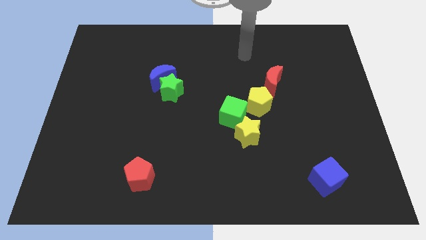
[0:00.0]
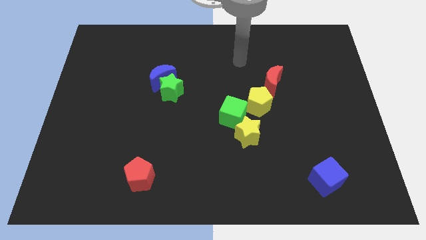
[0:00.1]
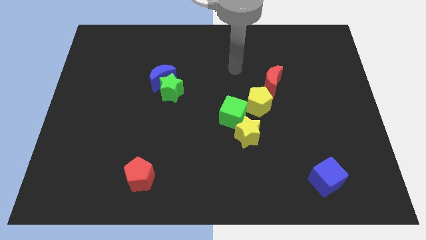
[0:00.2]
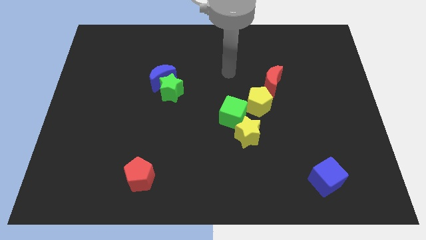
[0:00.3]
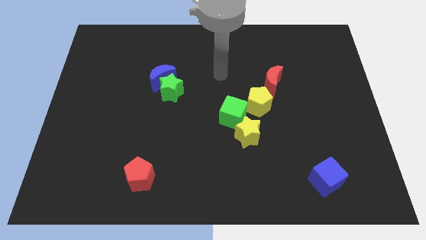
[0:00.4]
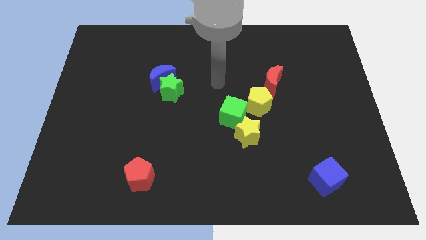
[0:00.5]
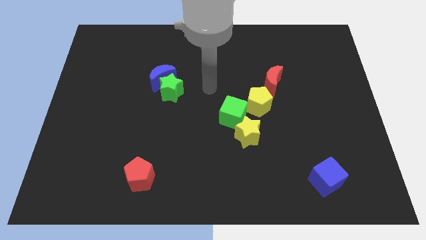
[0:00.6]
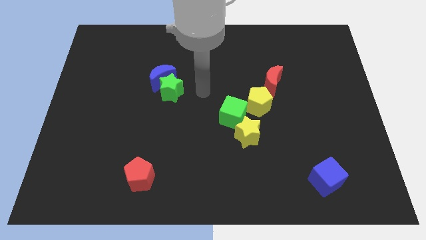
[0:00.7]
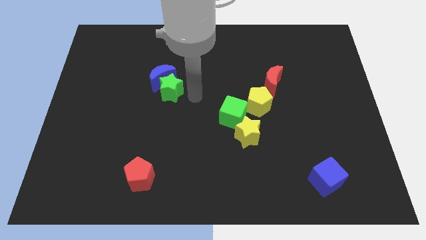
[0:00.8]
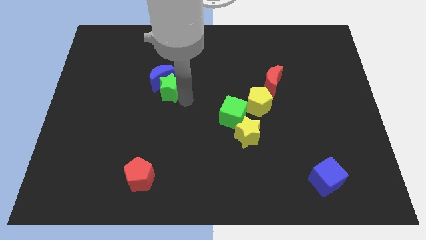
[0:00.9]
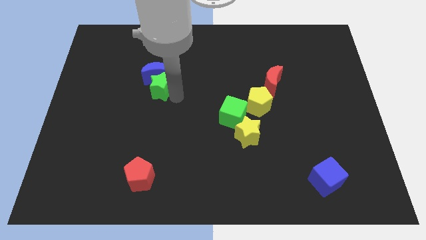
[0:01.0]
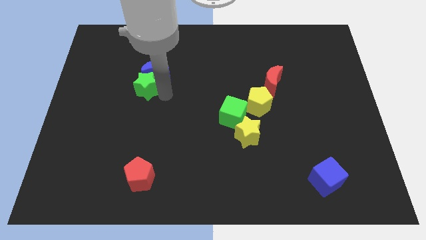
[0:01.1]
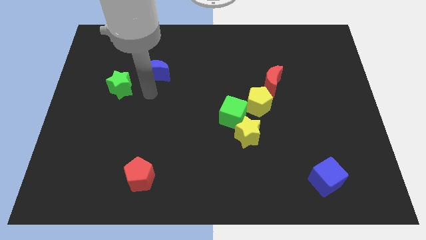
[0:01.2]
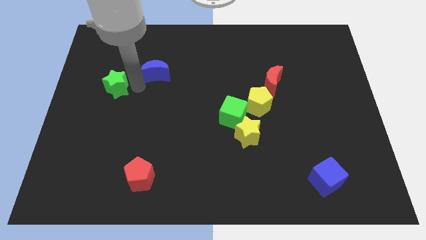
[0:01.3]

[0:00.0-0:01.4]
separate the blue moon from the green star

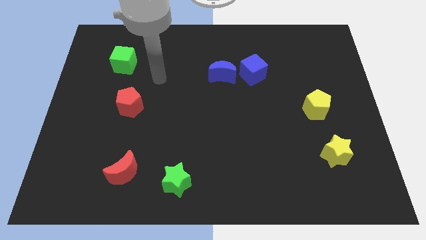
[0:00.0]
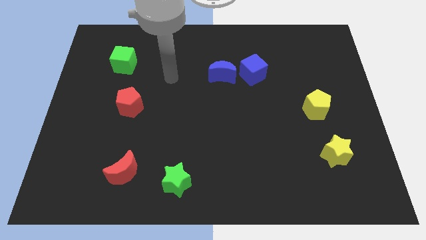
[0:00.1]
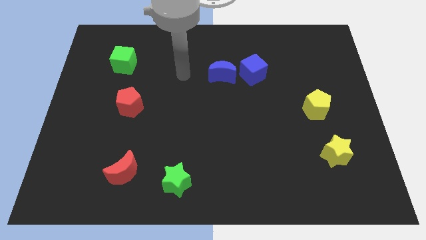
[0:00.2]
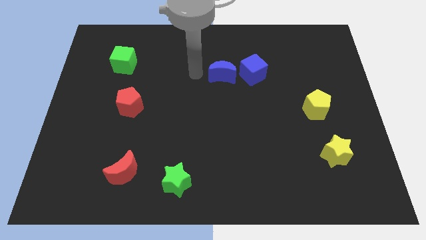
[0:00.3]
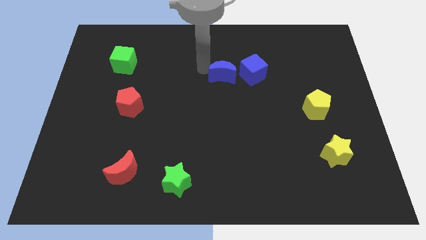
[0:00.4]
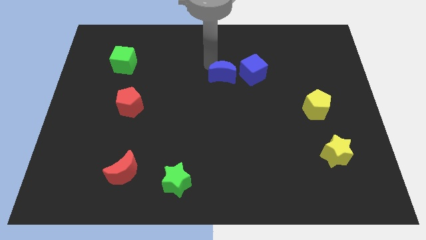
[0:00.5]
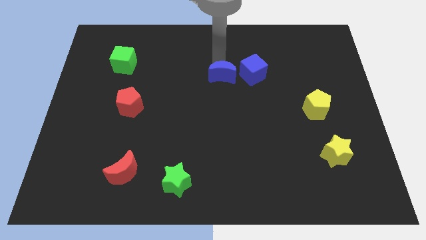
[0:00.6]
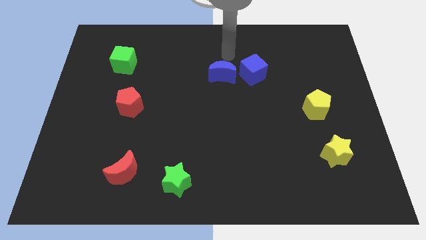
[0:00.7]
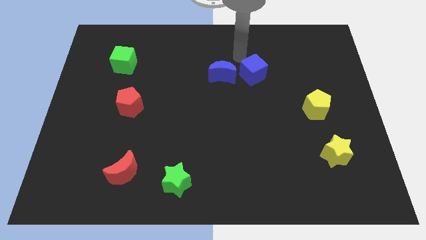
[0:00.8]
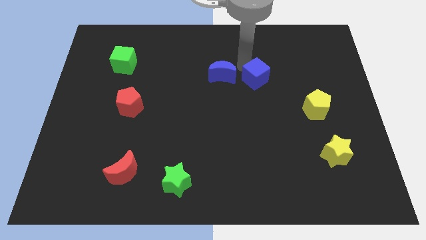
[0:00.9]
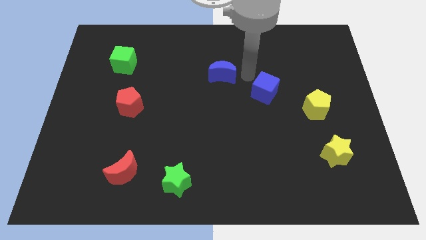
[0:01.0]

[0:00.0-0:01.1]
move the blue moon away from the blue cube

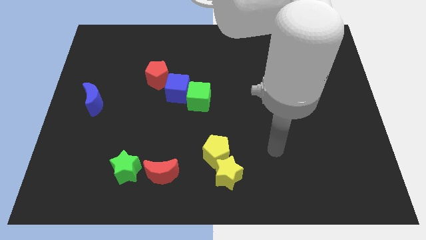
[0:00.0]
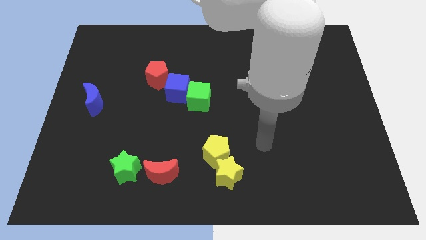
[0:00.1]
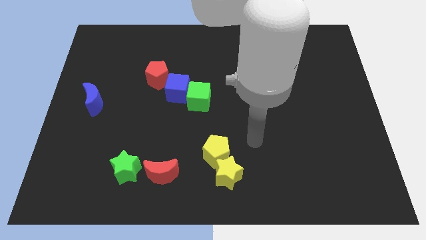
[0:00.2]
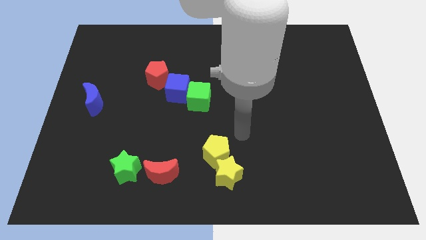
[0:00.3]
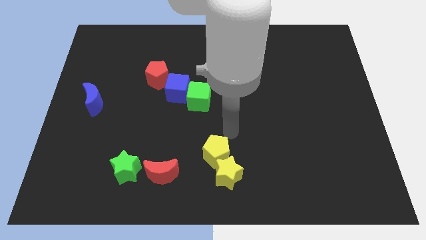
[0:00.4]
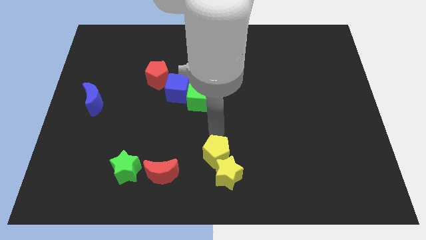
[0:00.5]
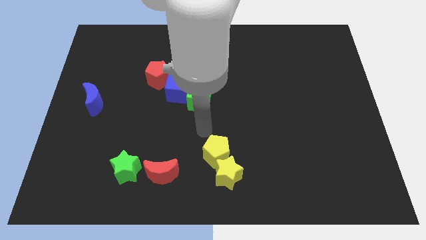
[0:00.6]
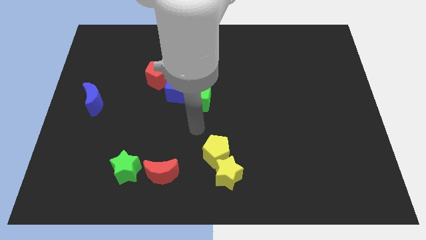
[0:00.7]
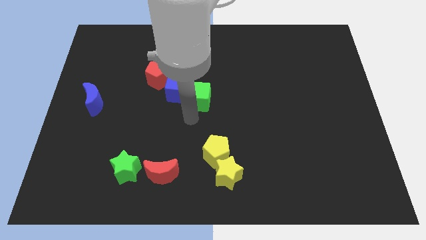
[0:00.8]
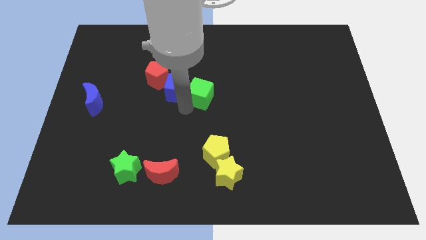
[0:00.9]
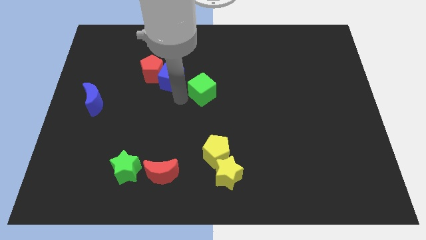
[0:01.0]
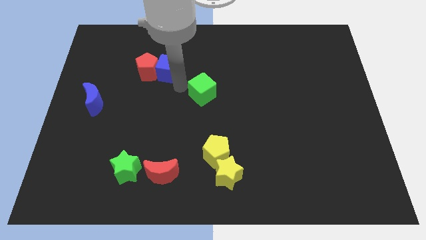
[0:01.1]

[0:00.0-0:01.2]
separate the green cube from the blue cube

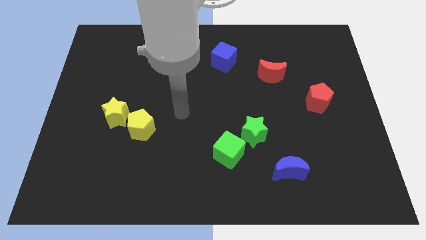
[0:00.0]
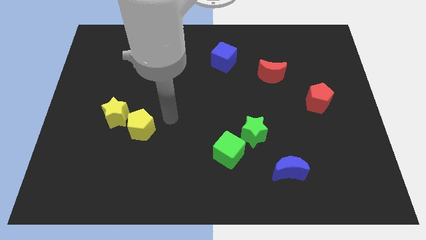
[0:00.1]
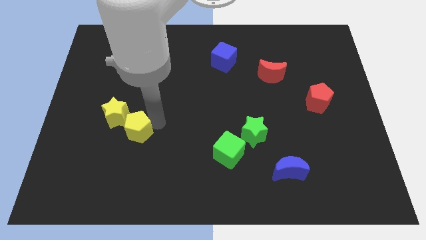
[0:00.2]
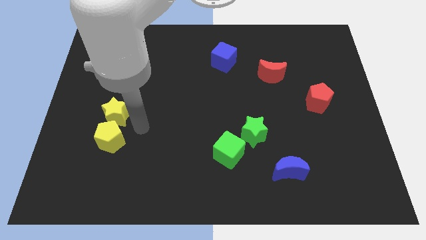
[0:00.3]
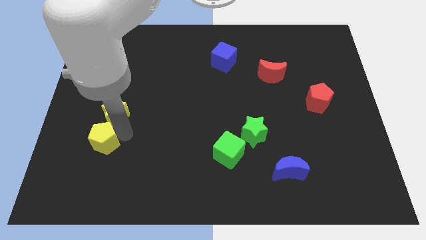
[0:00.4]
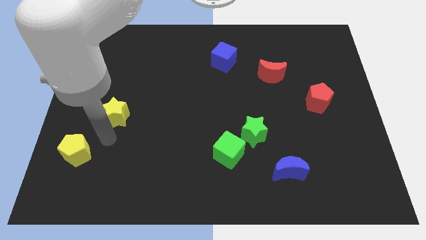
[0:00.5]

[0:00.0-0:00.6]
separate the yellow star from the yellow pentagon

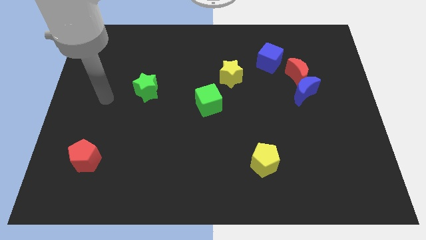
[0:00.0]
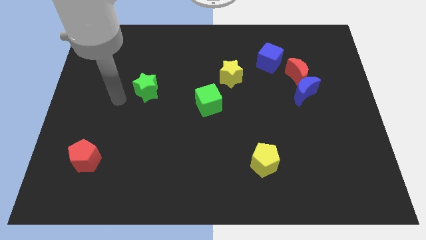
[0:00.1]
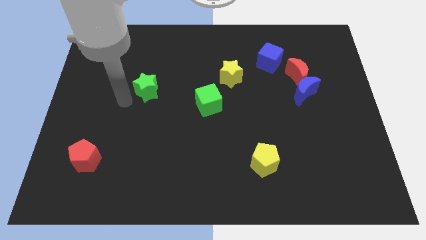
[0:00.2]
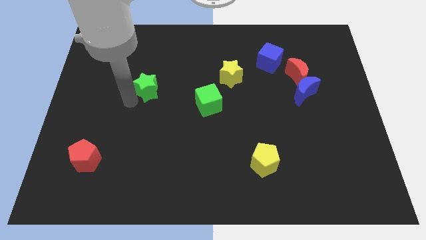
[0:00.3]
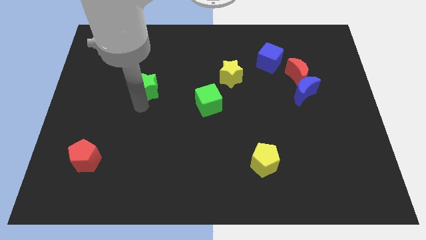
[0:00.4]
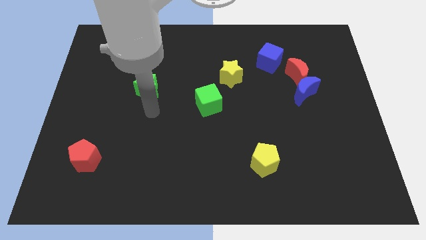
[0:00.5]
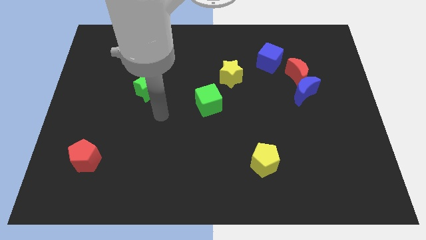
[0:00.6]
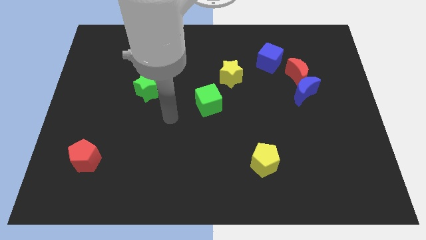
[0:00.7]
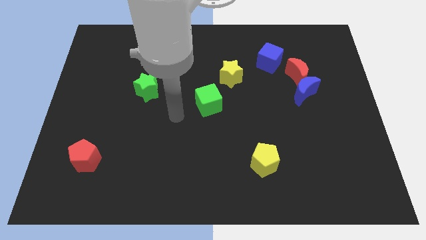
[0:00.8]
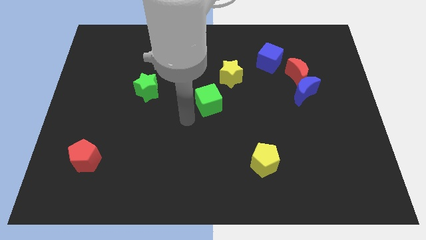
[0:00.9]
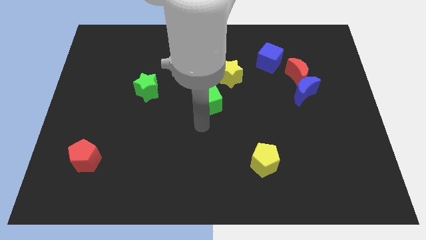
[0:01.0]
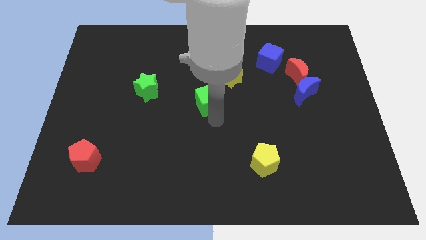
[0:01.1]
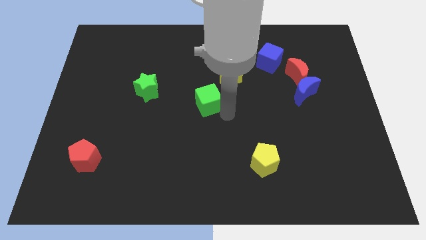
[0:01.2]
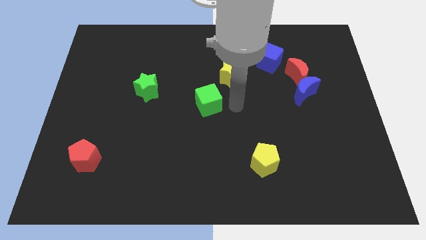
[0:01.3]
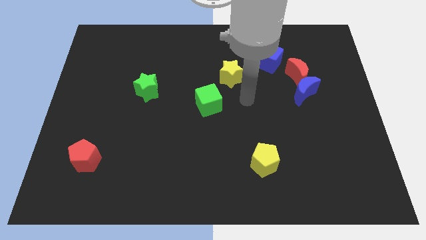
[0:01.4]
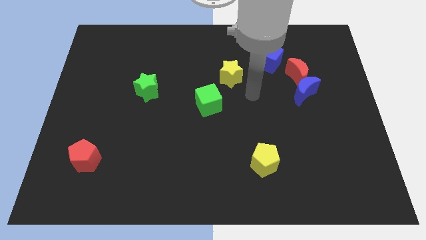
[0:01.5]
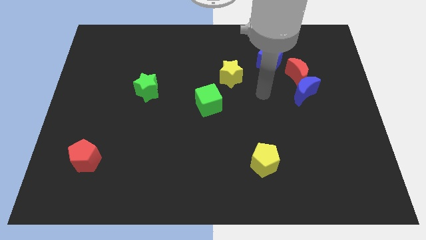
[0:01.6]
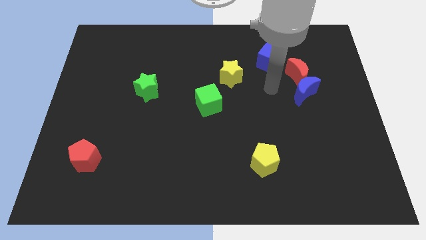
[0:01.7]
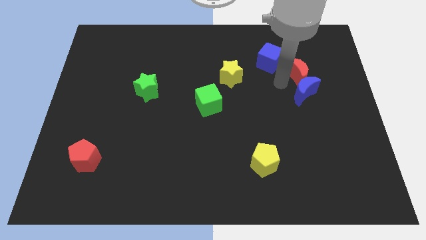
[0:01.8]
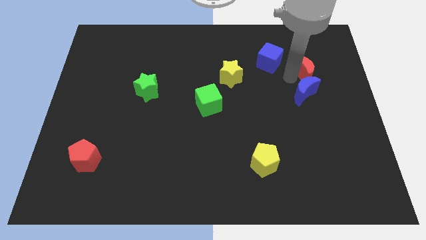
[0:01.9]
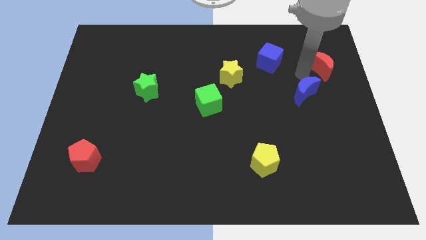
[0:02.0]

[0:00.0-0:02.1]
move the blue moon away from the red moon

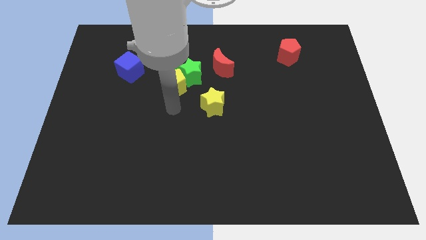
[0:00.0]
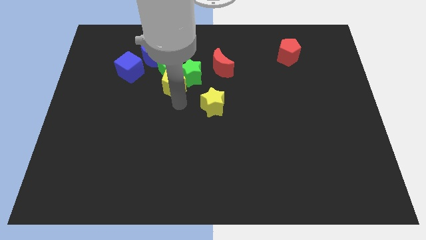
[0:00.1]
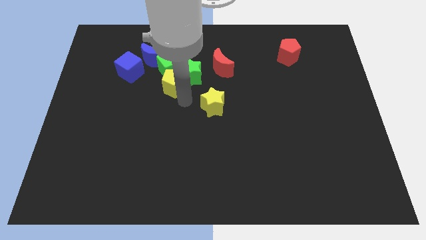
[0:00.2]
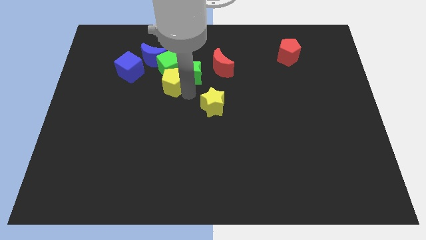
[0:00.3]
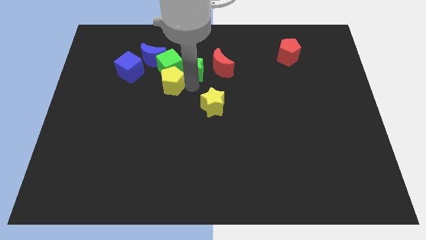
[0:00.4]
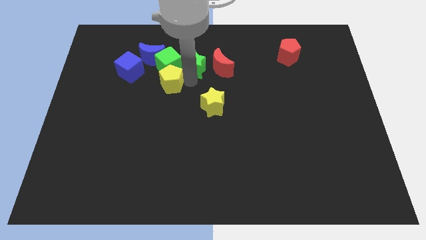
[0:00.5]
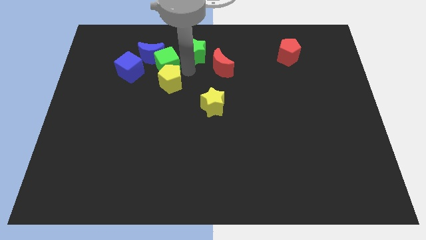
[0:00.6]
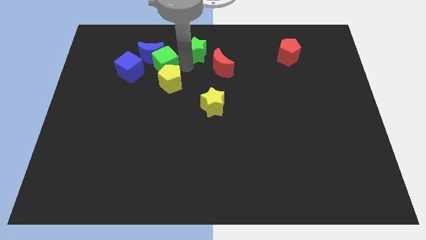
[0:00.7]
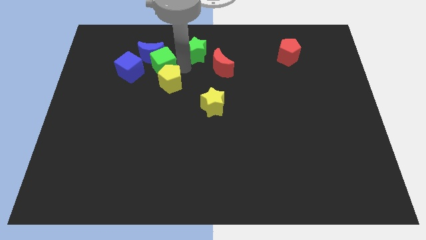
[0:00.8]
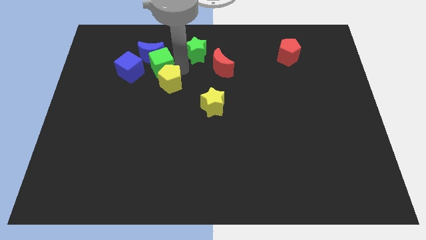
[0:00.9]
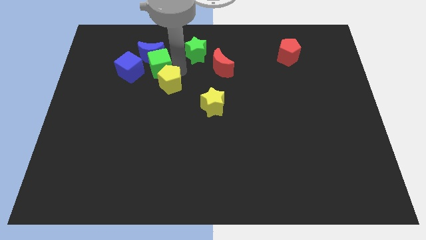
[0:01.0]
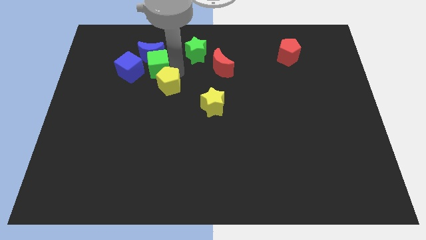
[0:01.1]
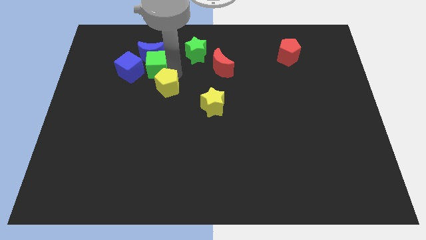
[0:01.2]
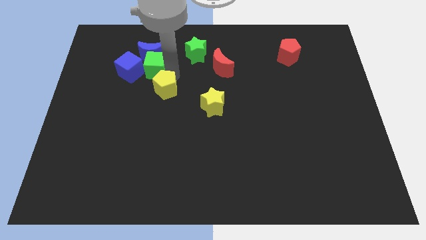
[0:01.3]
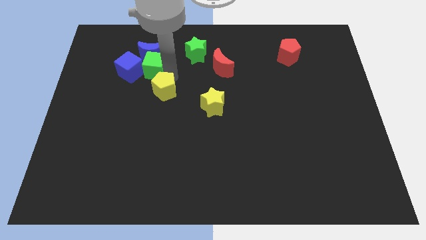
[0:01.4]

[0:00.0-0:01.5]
separate the yellow pentagon from the green star and green cube

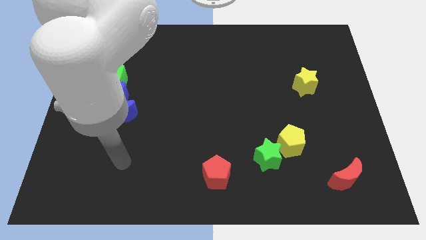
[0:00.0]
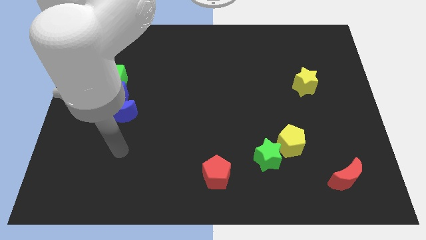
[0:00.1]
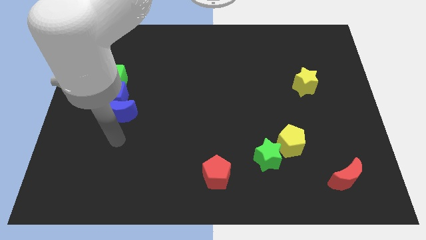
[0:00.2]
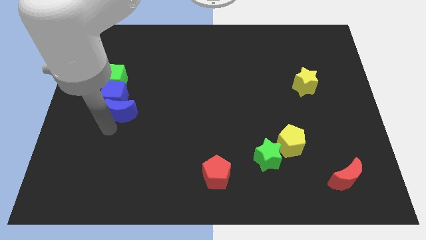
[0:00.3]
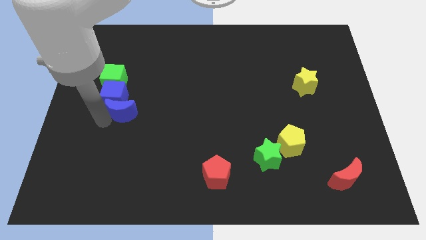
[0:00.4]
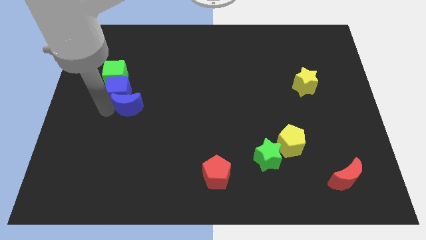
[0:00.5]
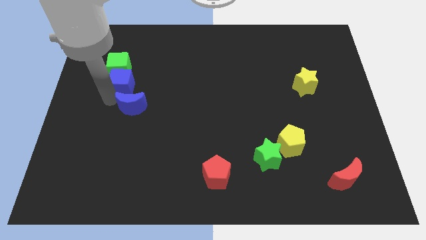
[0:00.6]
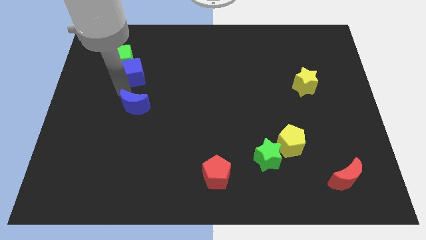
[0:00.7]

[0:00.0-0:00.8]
pull the blue moon apart from the blue cube

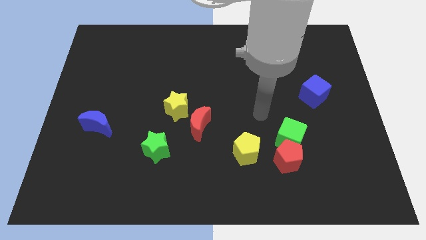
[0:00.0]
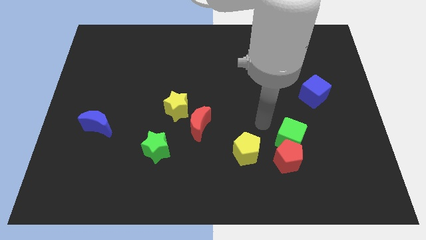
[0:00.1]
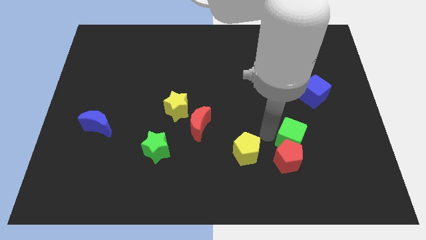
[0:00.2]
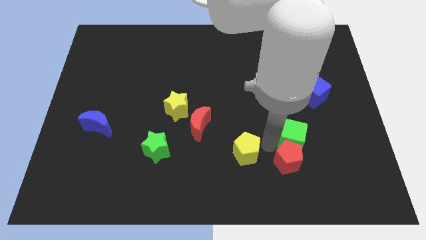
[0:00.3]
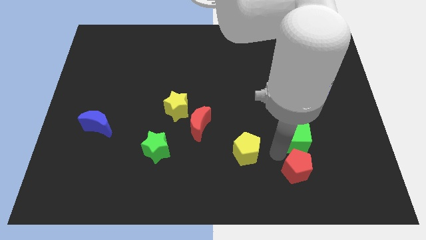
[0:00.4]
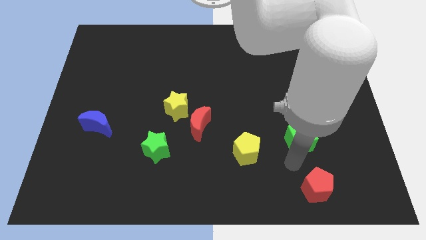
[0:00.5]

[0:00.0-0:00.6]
move the green cube away from the red pentagon

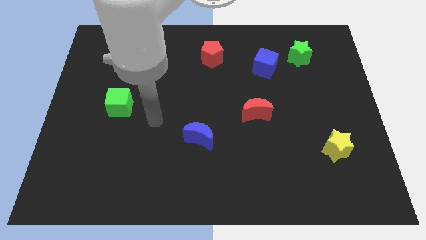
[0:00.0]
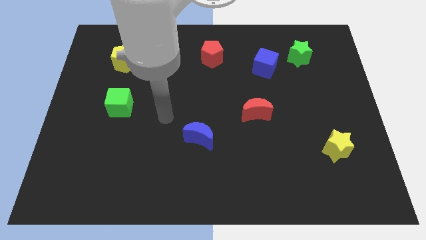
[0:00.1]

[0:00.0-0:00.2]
move the blue cube away from the green star
